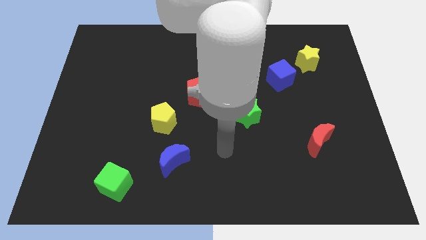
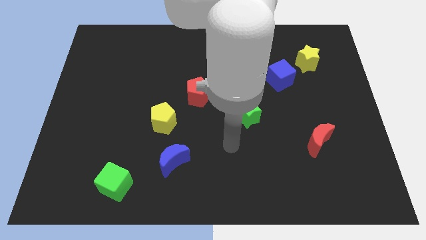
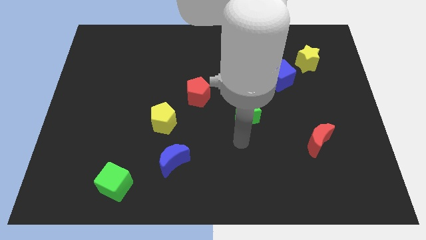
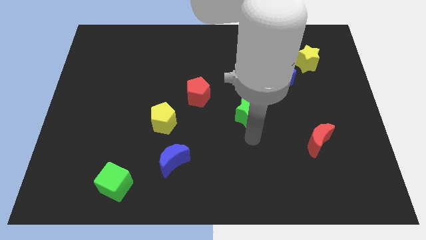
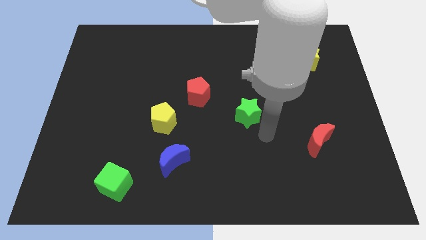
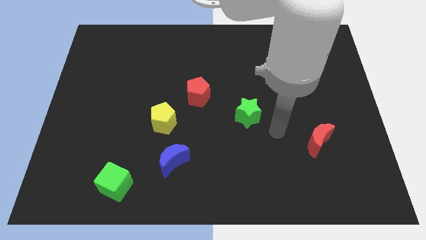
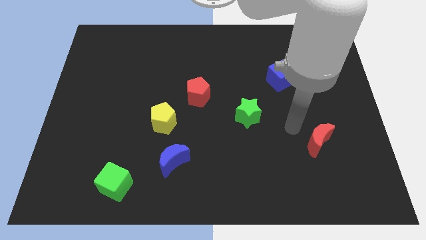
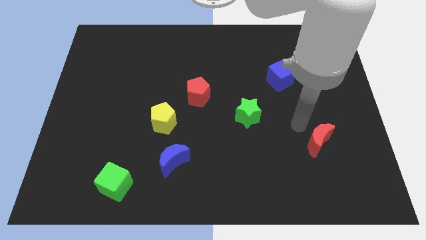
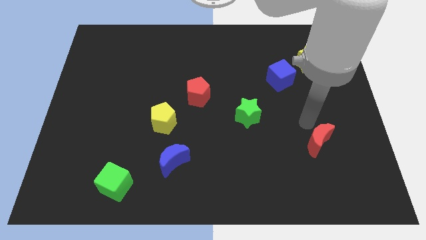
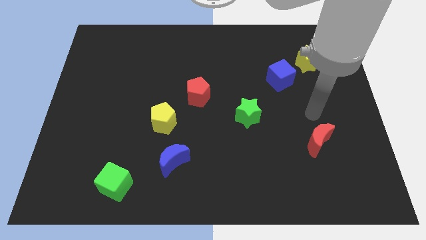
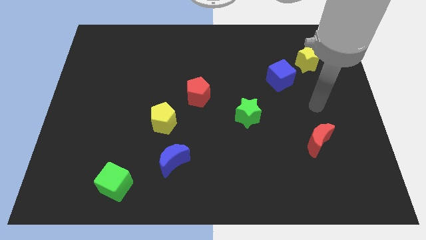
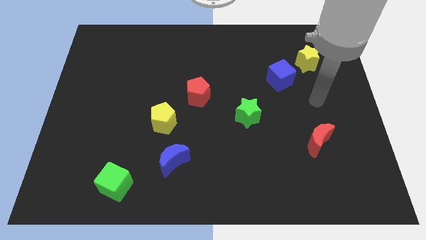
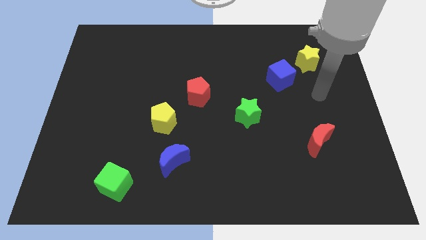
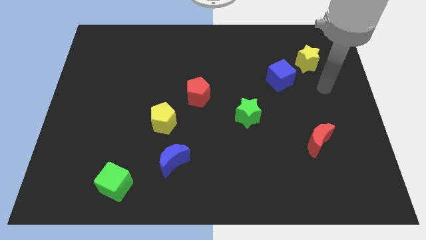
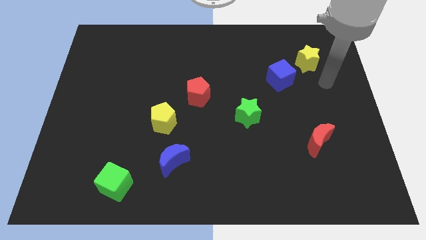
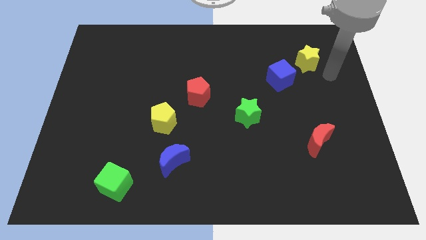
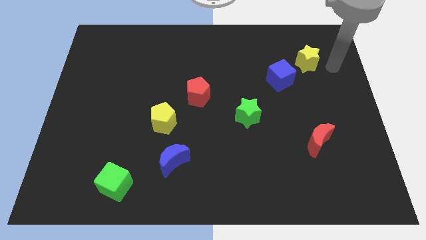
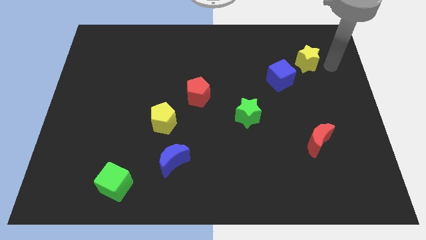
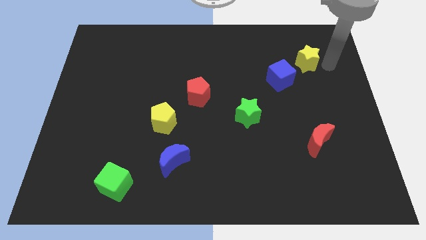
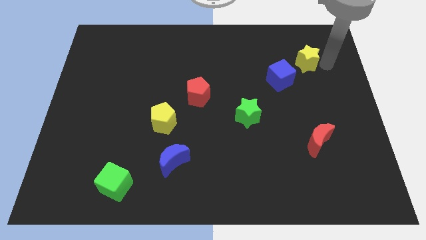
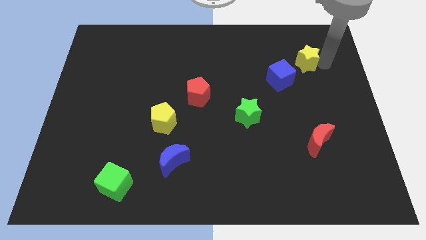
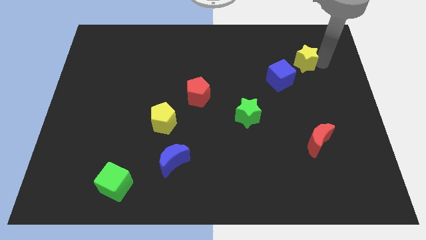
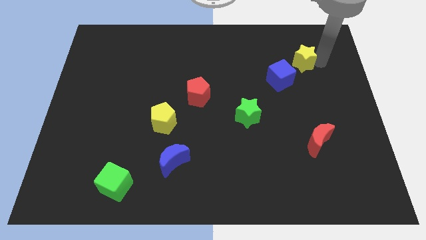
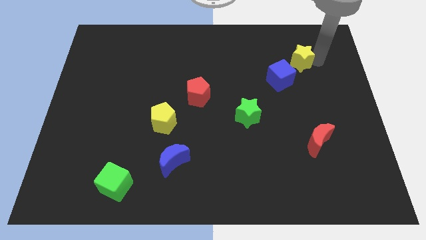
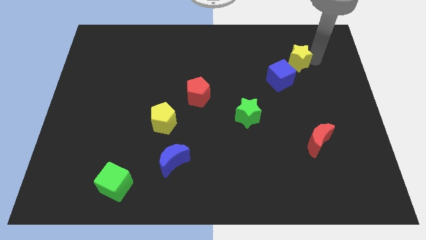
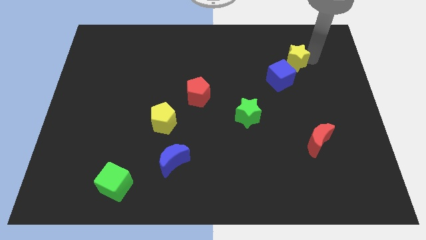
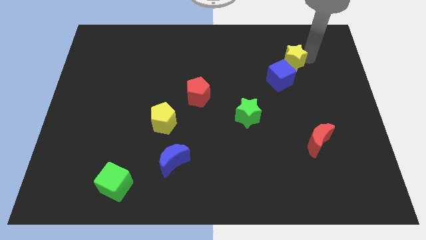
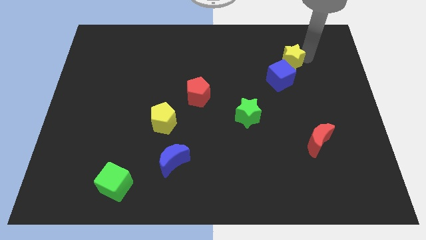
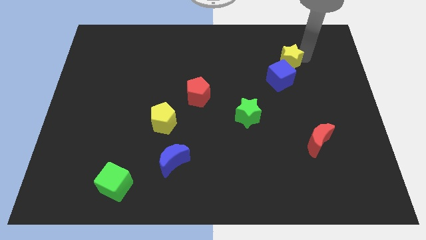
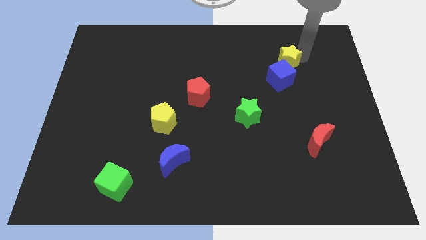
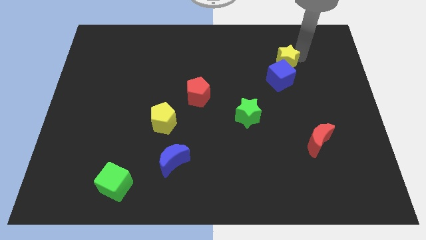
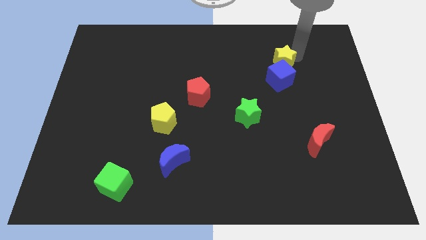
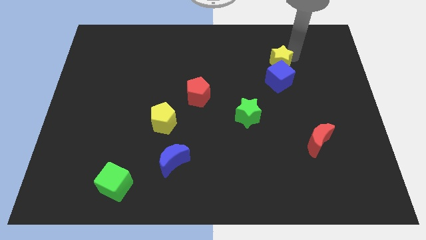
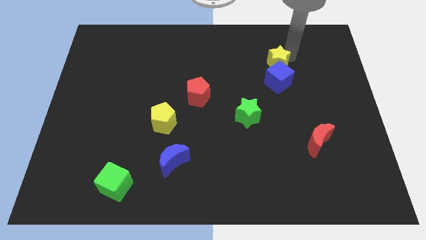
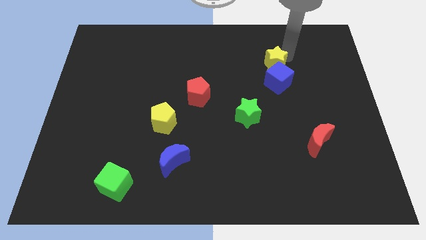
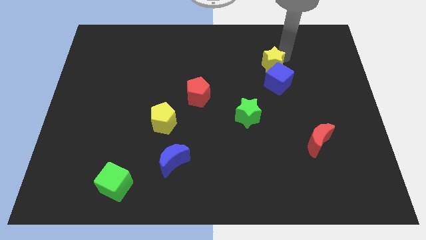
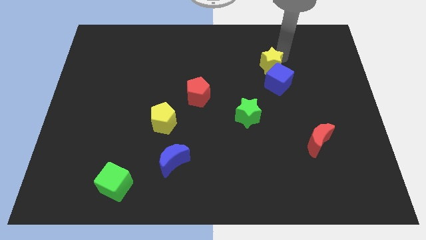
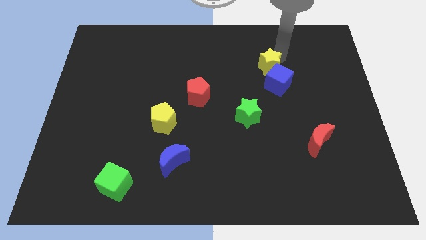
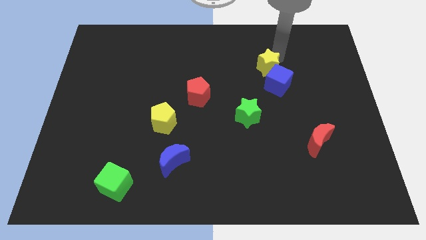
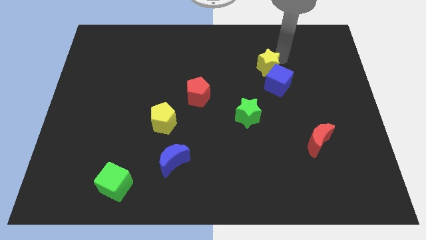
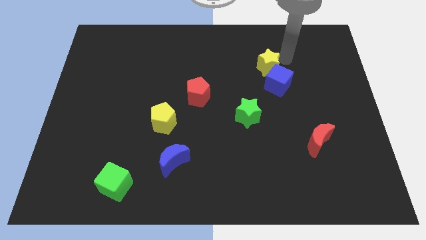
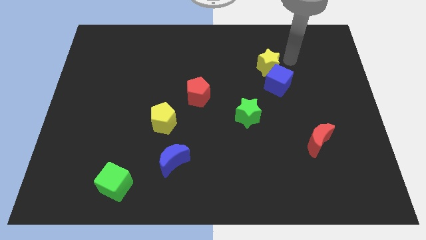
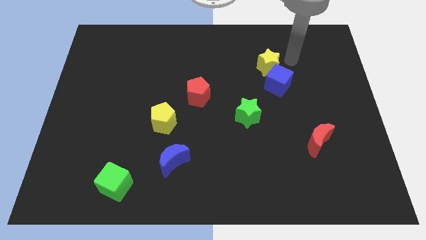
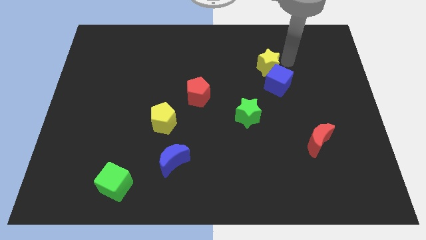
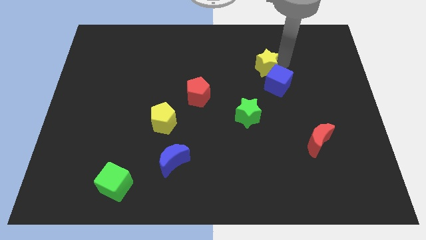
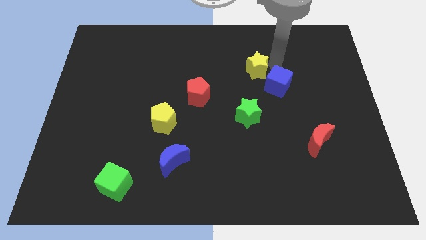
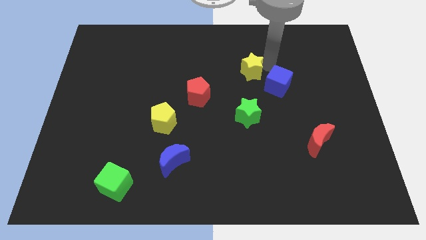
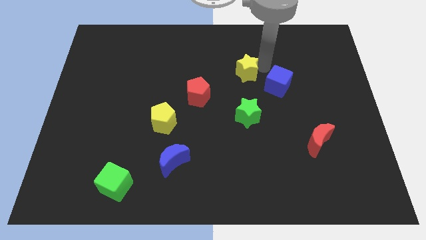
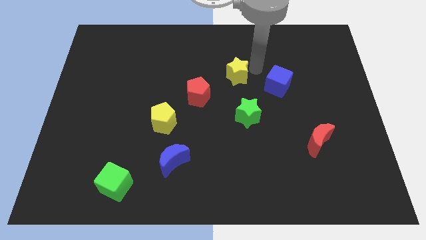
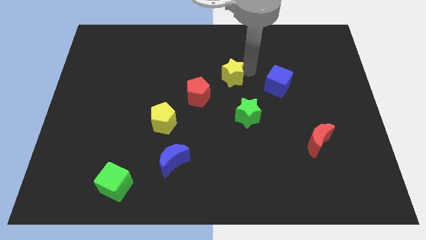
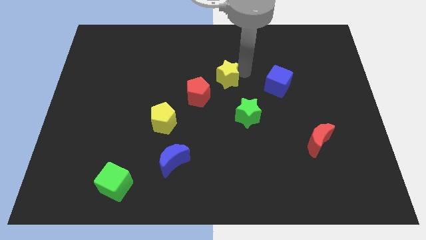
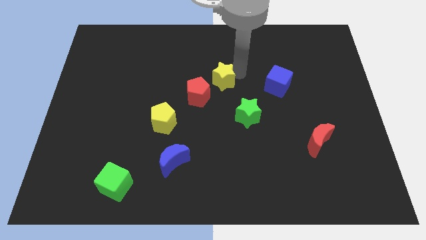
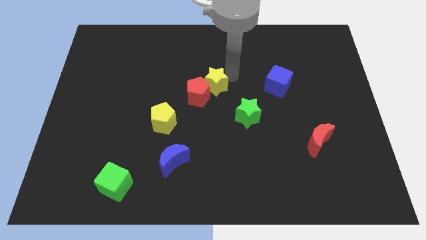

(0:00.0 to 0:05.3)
move the yellow star towards the red pentagon

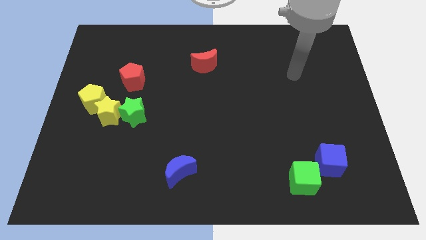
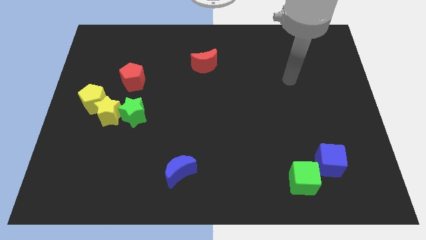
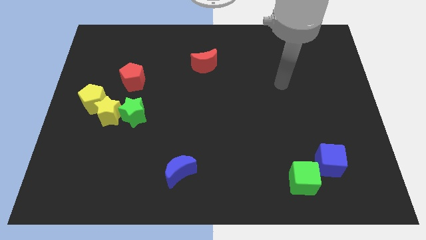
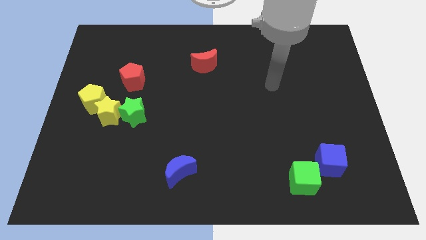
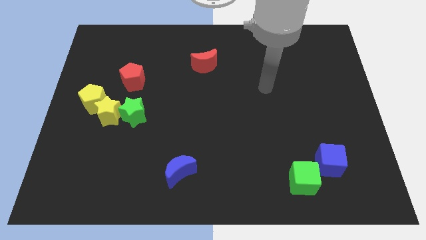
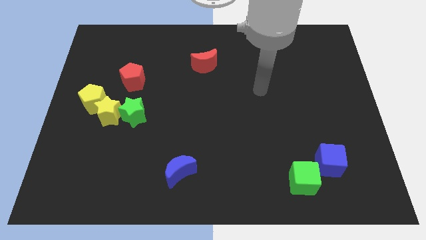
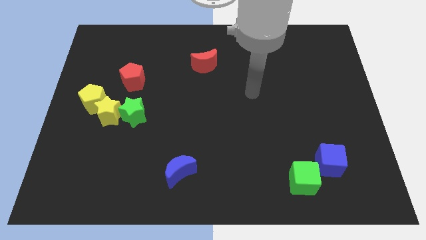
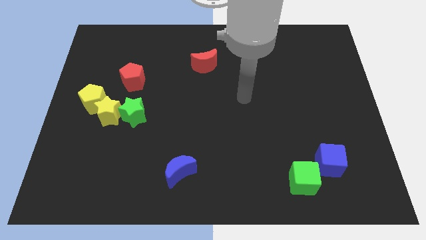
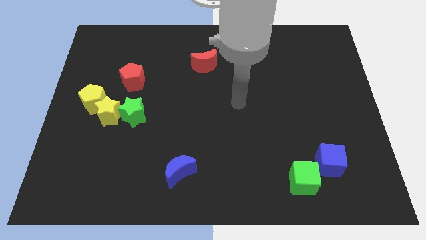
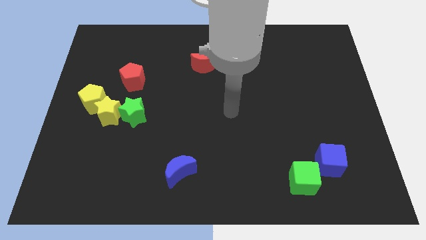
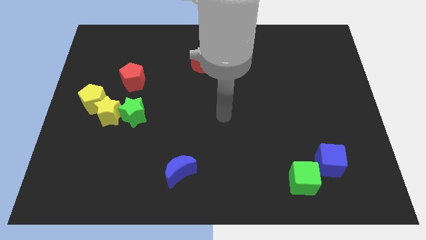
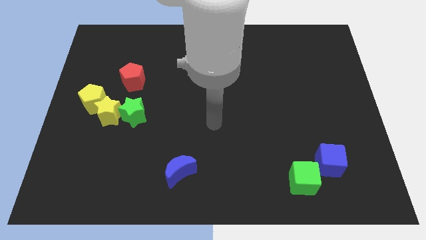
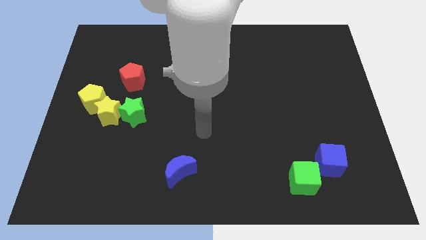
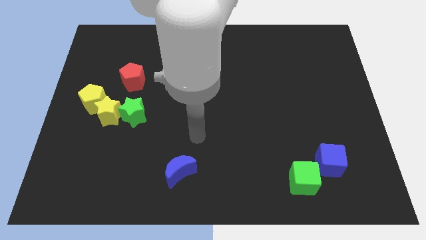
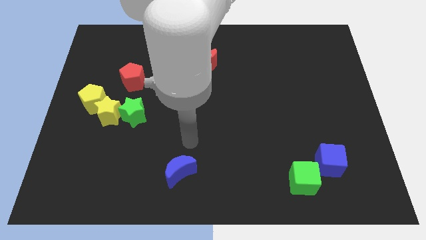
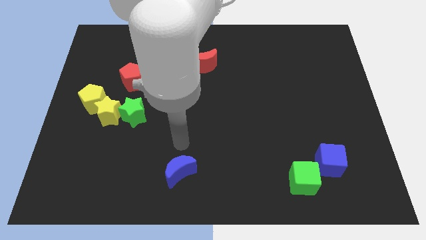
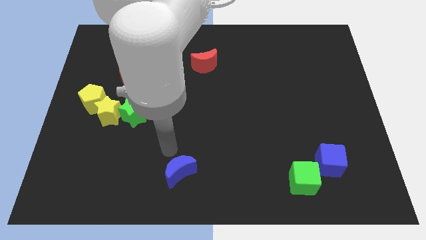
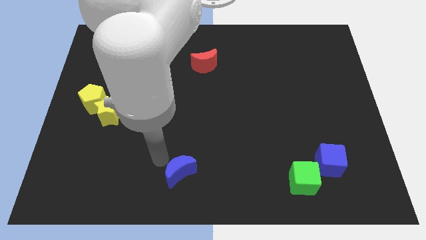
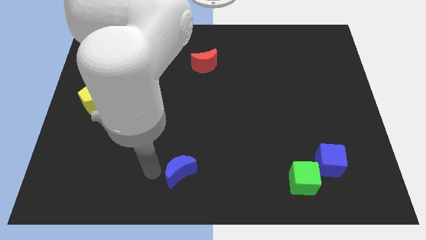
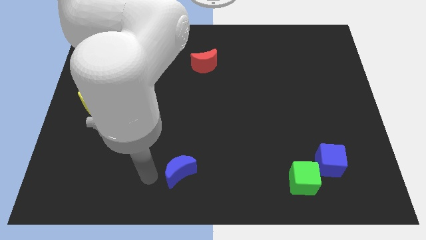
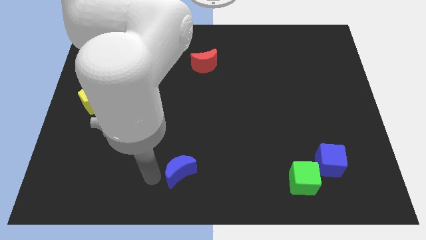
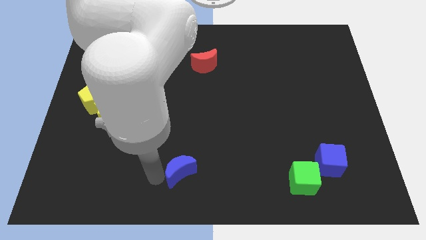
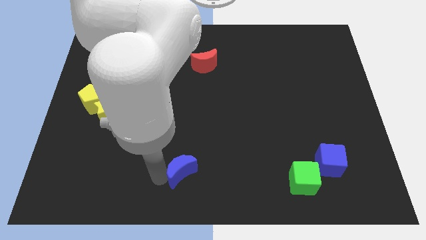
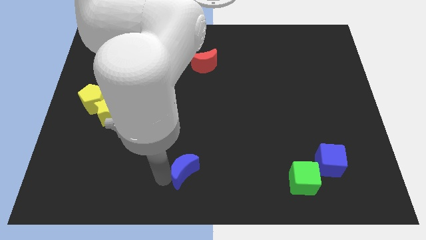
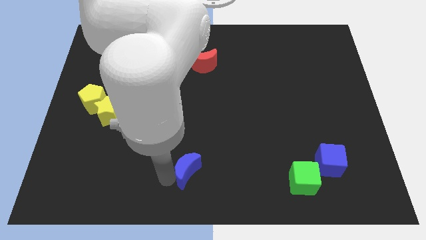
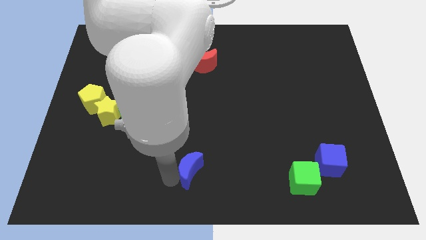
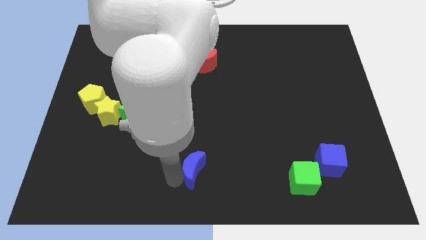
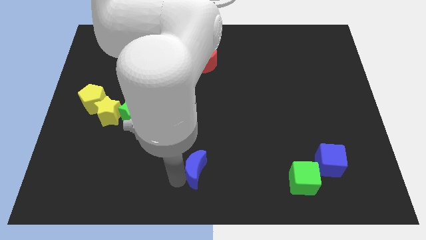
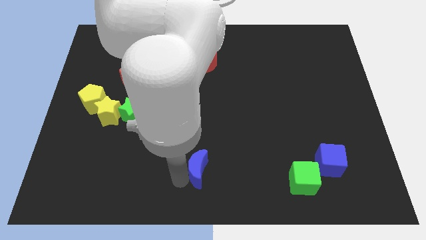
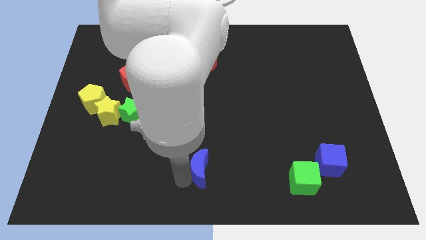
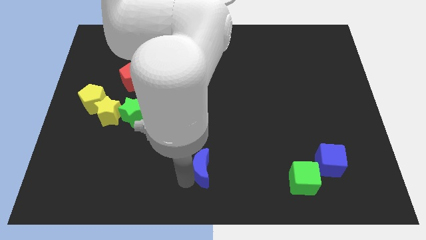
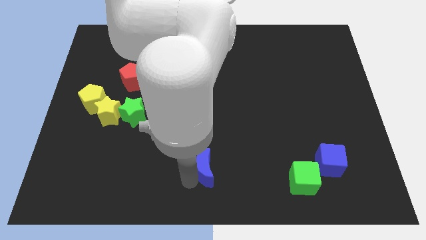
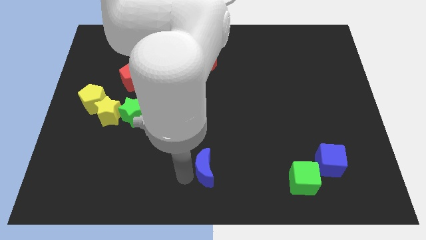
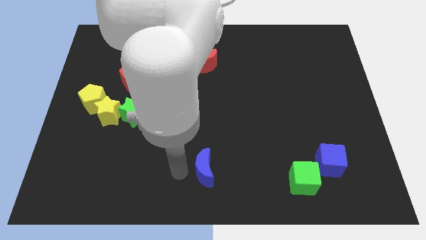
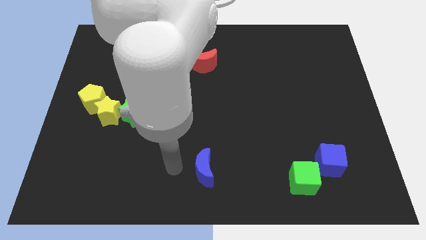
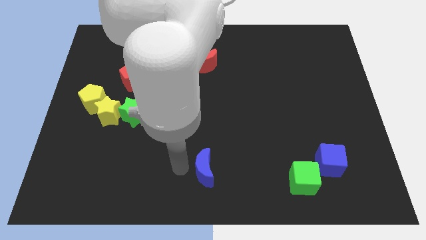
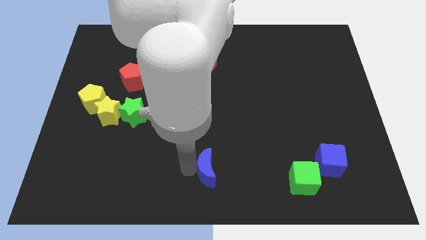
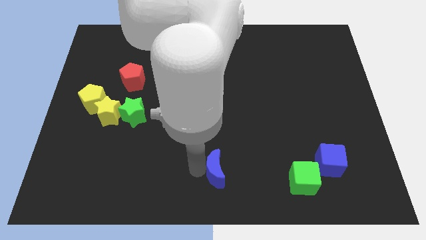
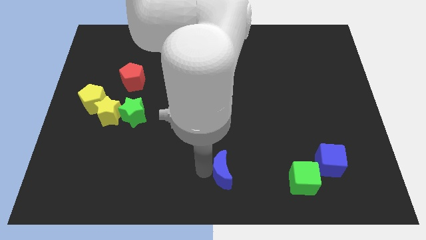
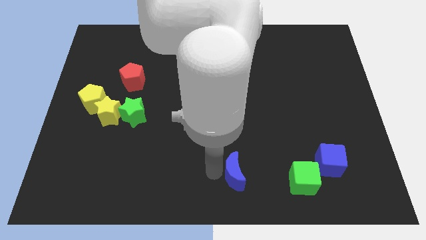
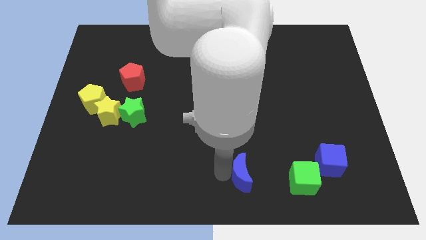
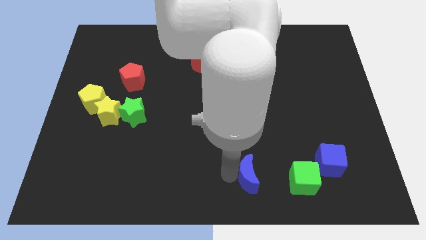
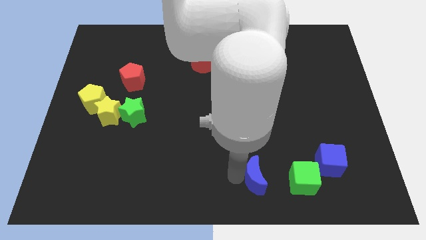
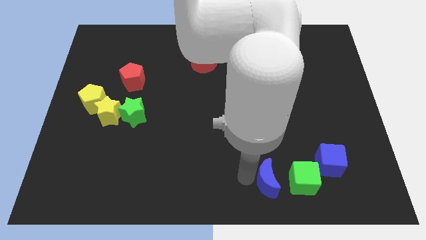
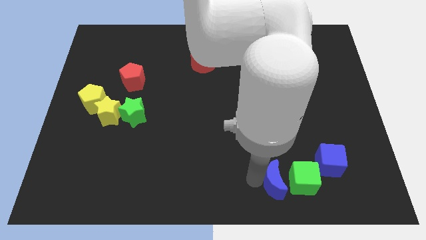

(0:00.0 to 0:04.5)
move the blue moon towards the green cube
